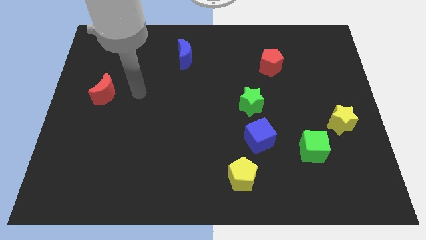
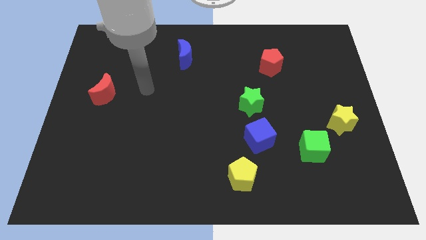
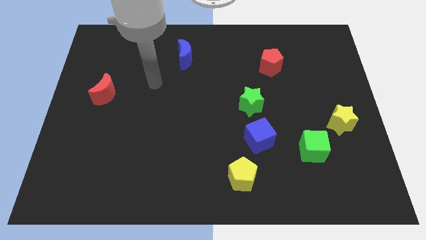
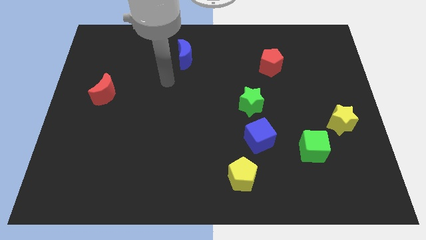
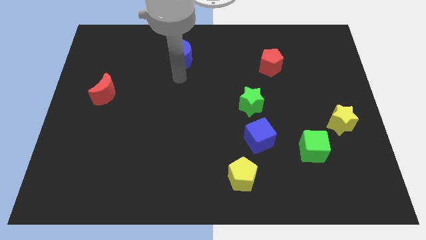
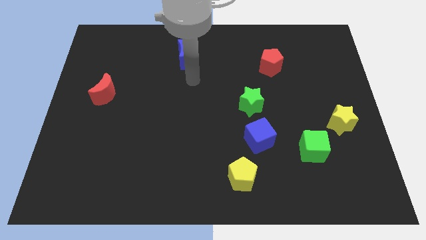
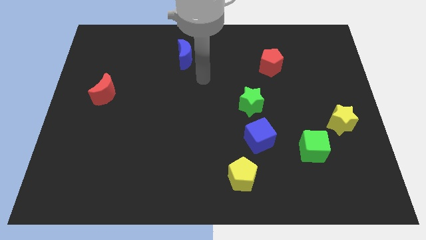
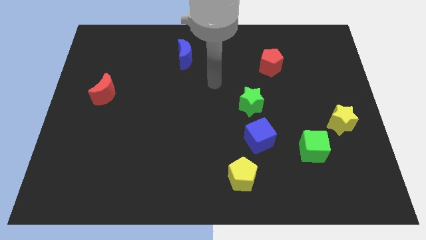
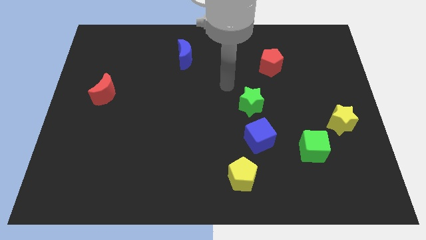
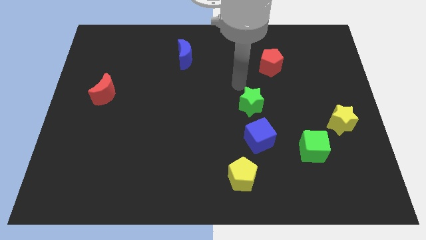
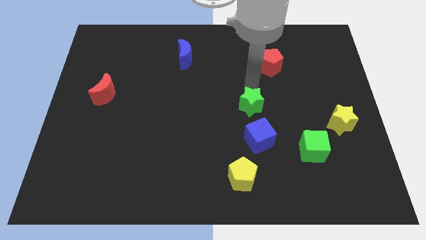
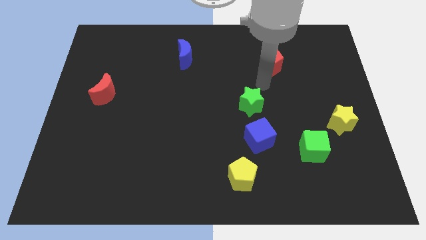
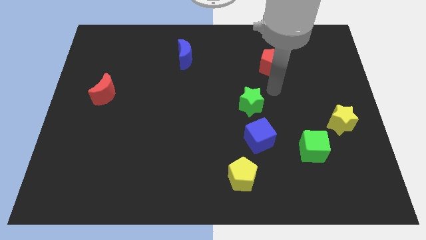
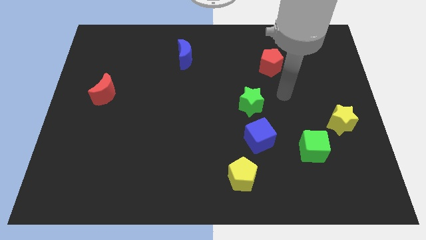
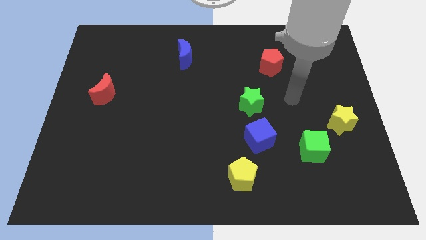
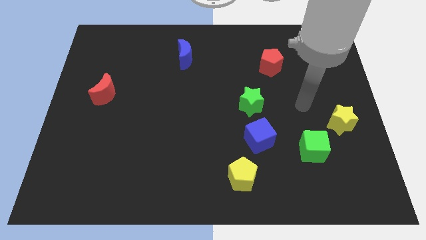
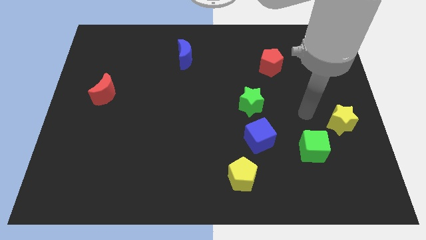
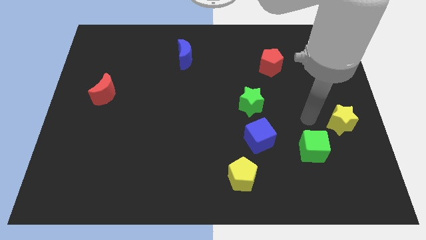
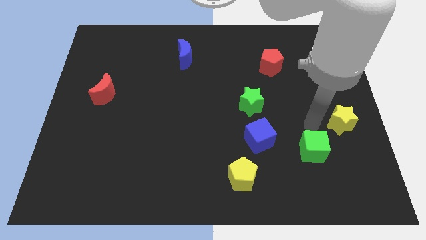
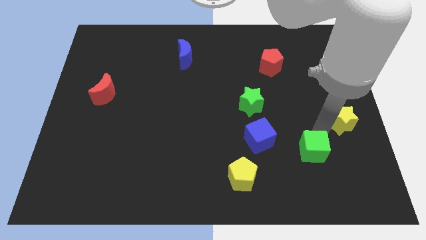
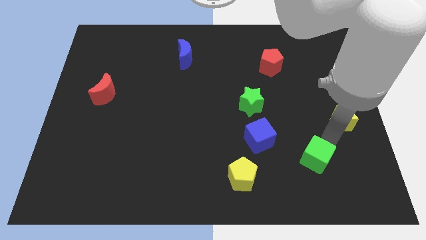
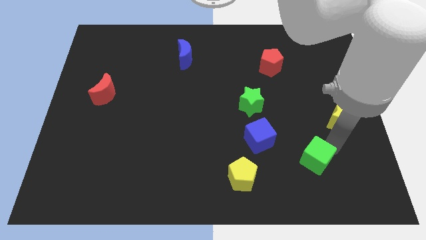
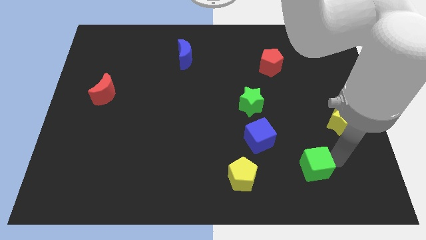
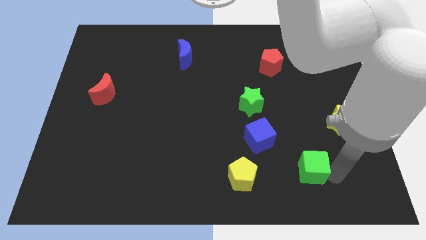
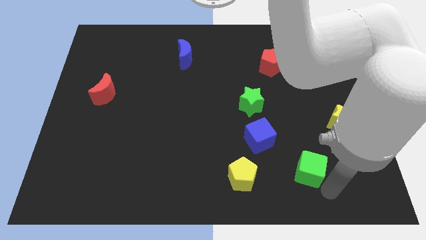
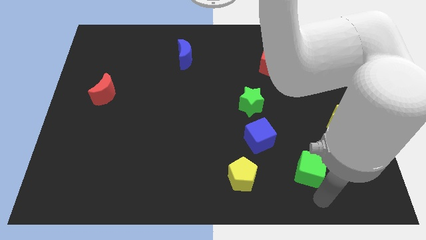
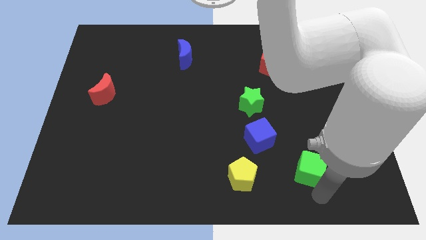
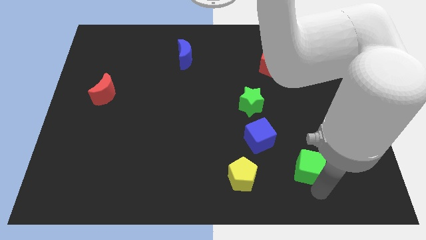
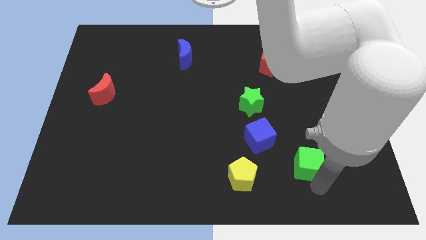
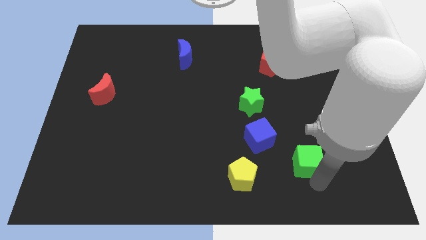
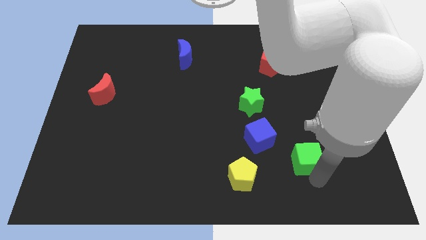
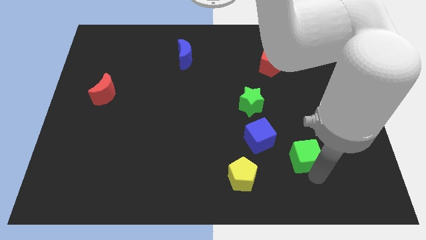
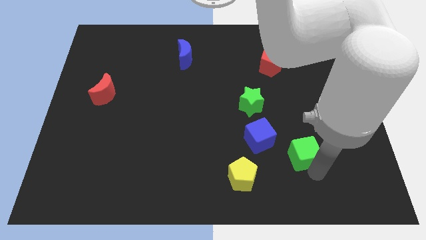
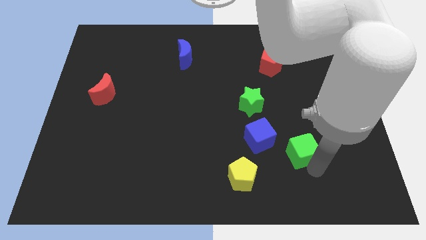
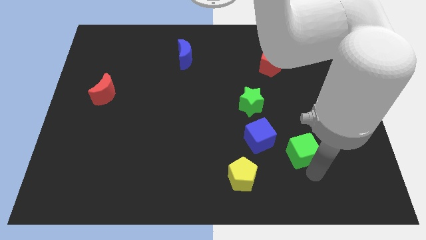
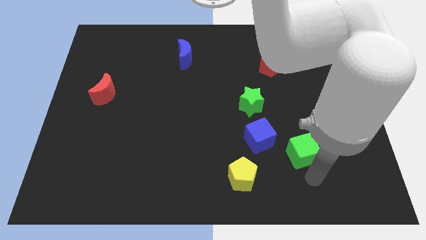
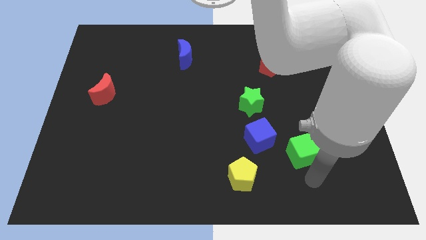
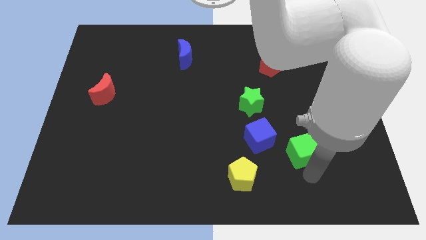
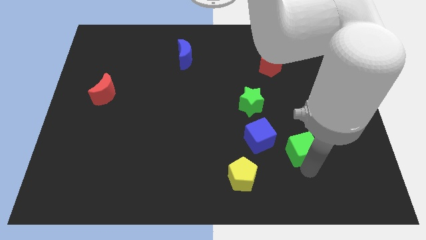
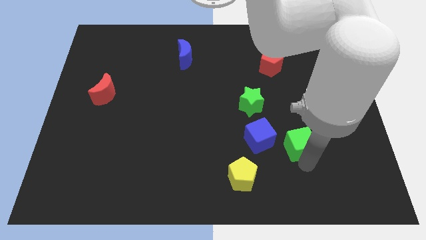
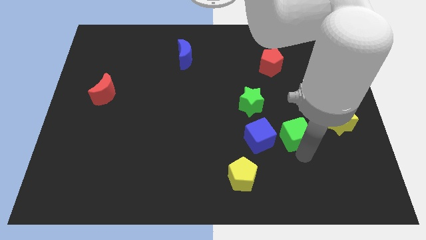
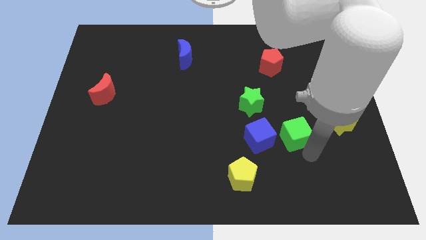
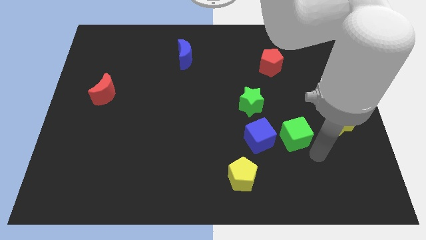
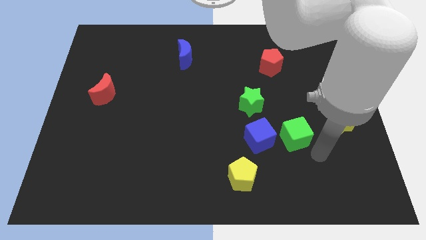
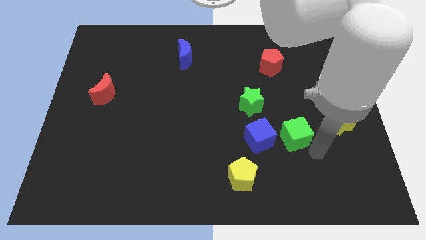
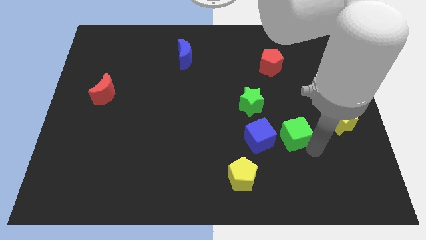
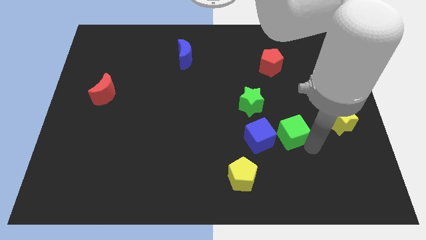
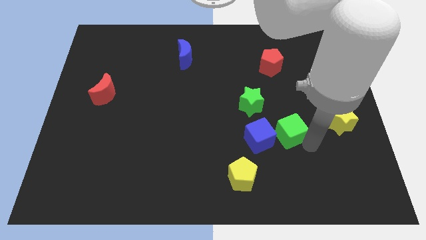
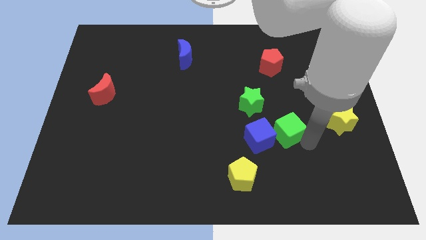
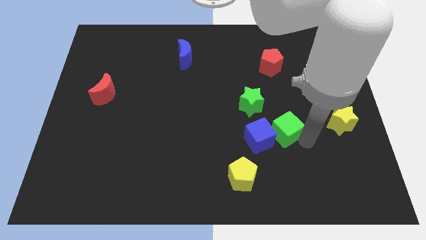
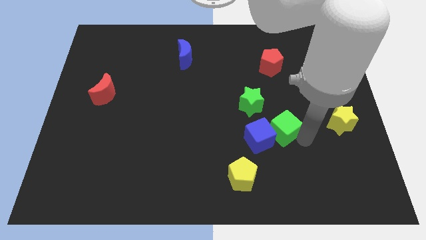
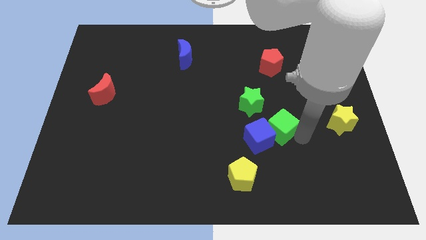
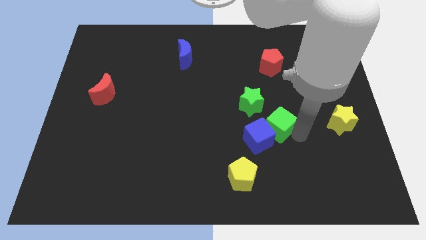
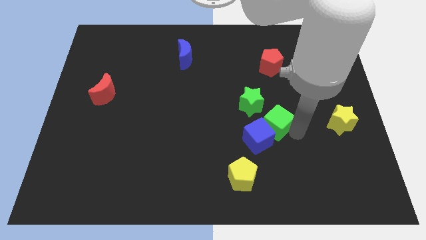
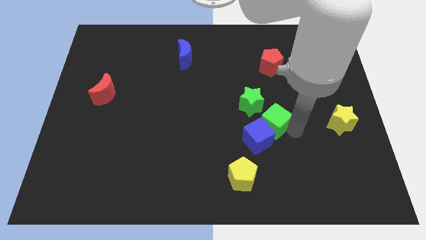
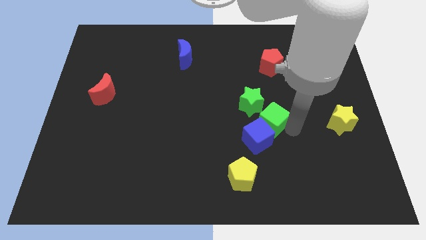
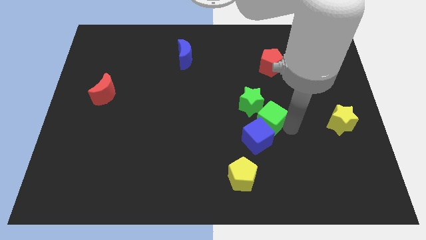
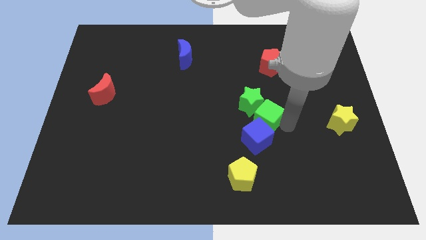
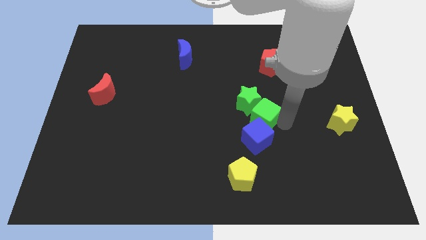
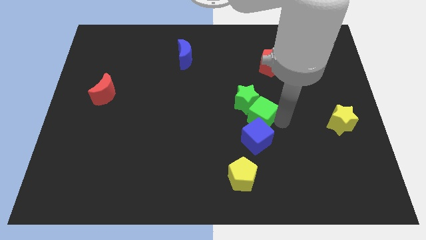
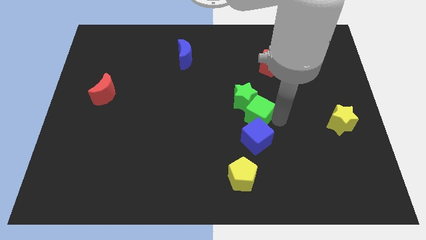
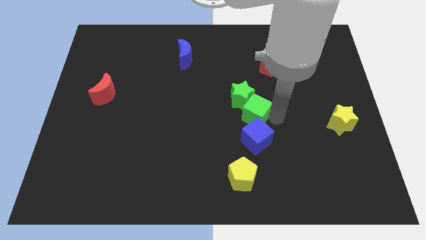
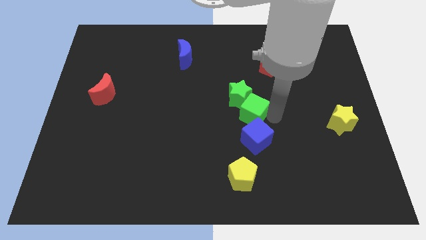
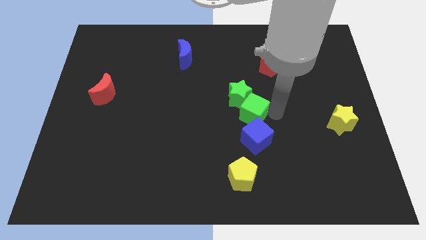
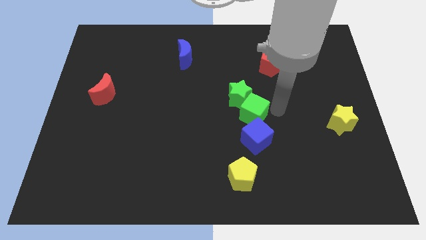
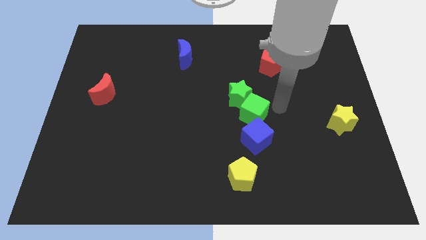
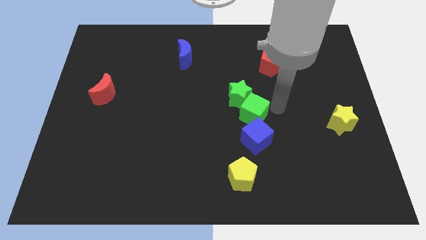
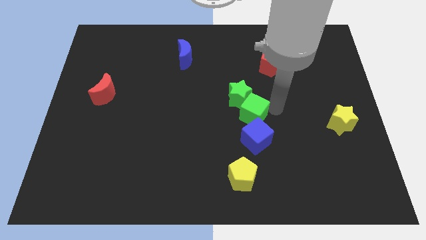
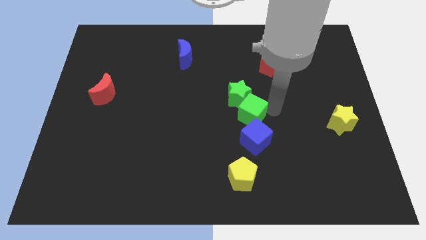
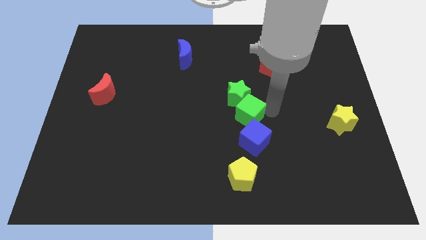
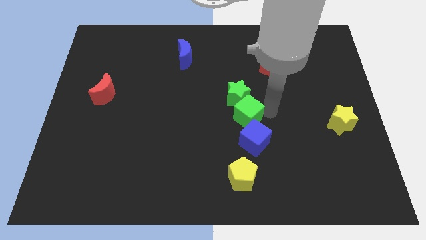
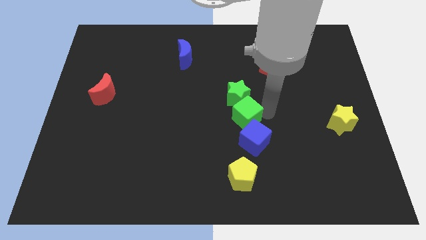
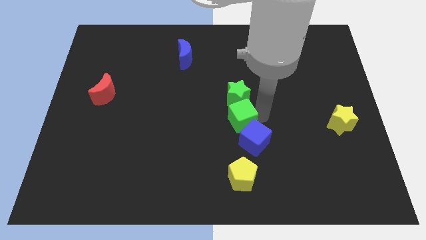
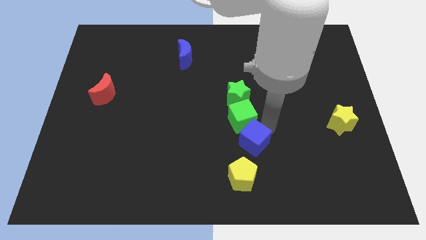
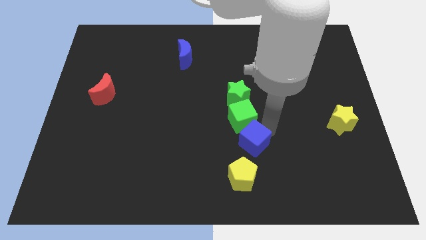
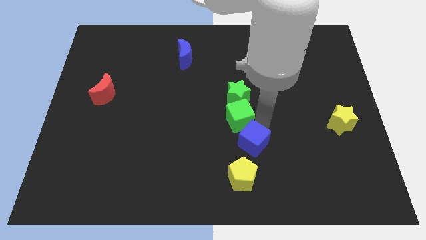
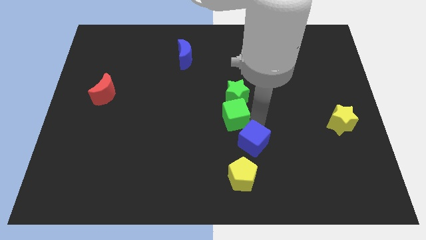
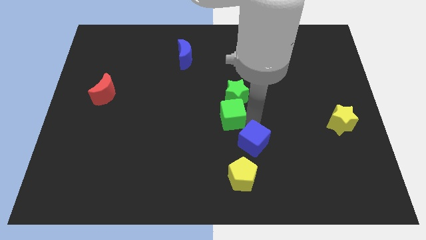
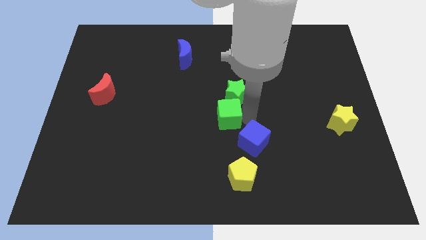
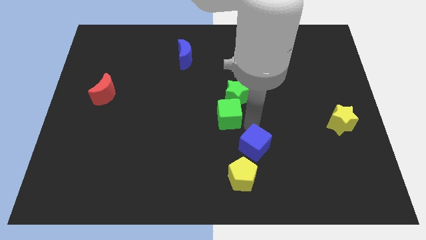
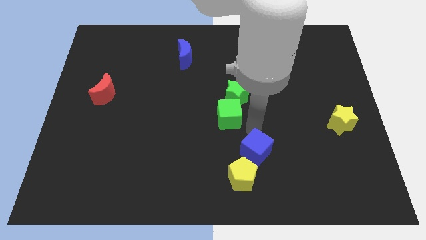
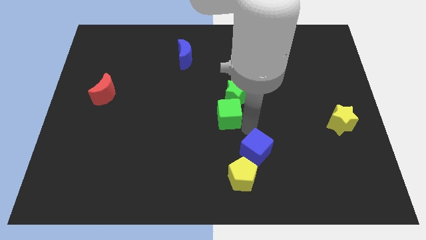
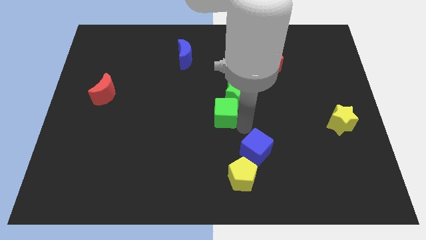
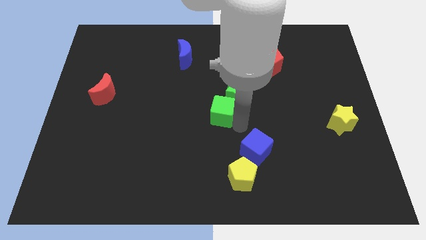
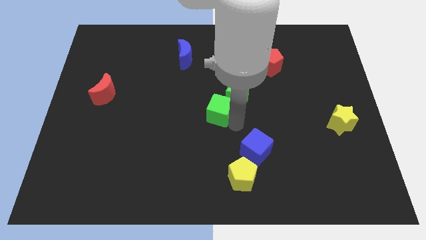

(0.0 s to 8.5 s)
put the green cube to the left side of the green star
